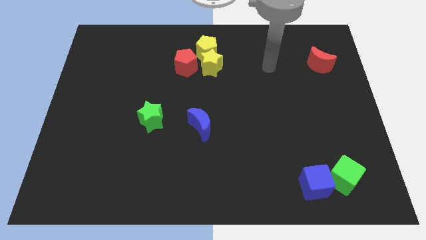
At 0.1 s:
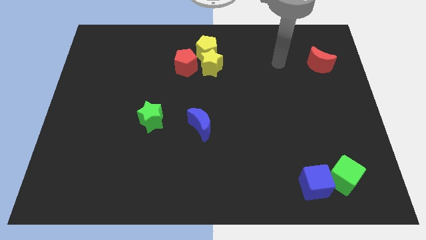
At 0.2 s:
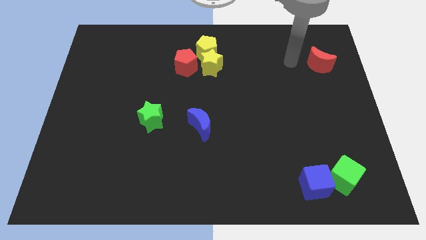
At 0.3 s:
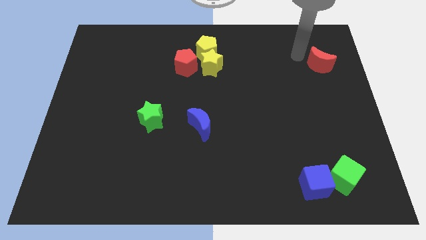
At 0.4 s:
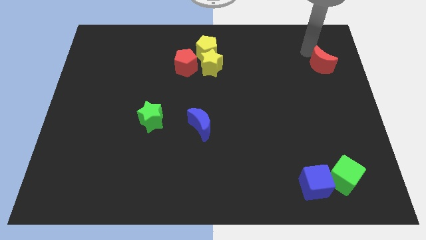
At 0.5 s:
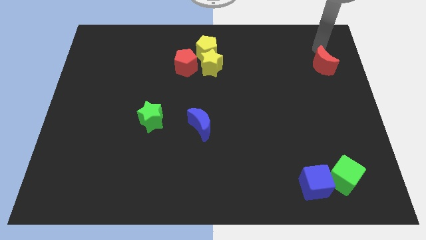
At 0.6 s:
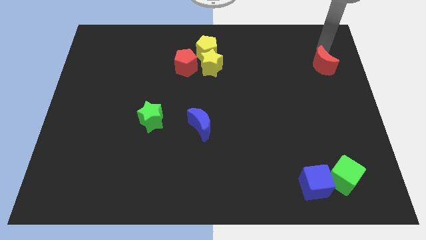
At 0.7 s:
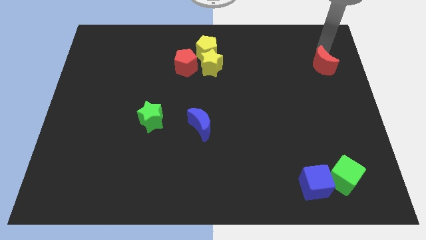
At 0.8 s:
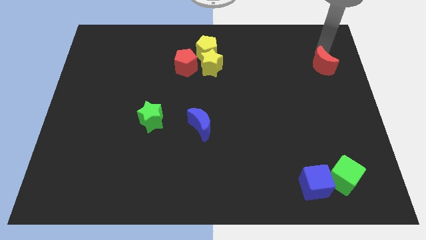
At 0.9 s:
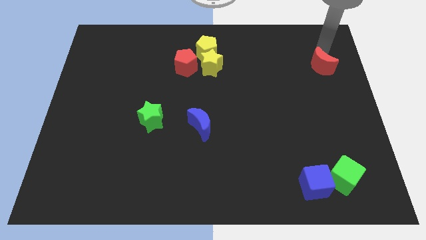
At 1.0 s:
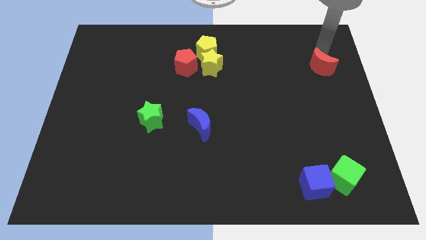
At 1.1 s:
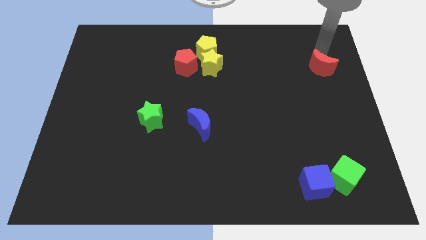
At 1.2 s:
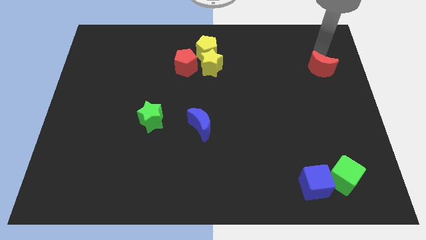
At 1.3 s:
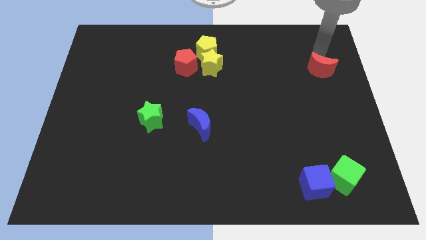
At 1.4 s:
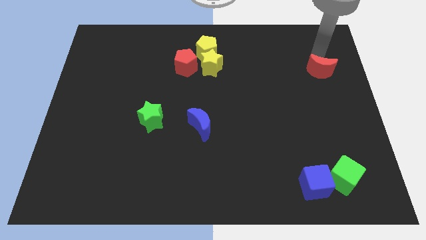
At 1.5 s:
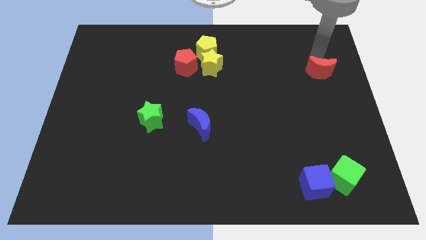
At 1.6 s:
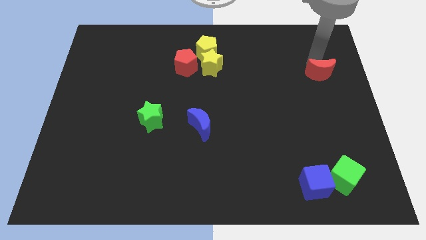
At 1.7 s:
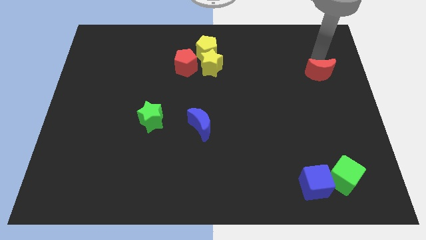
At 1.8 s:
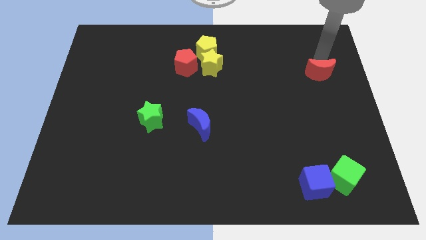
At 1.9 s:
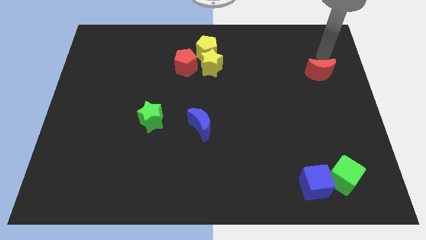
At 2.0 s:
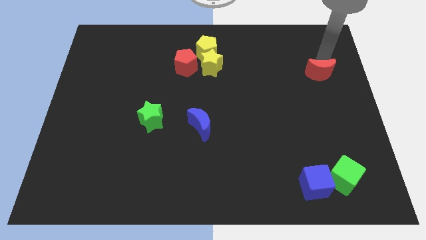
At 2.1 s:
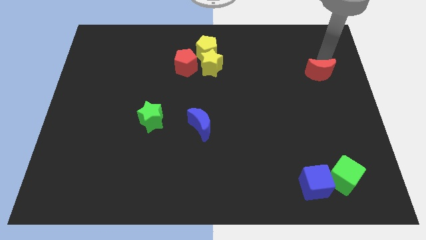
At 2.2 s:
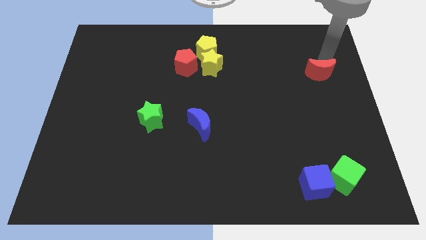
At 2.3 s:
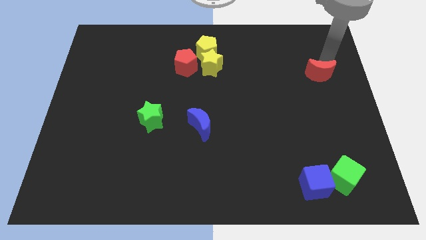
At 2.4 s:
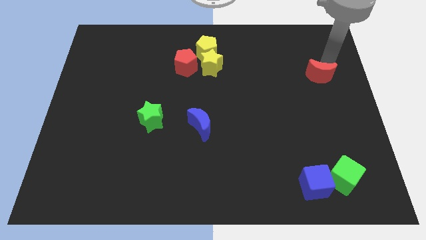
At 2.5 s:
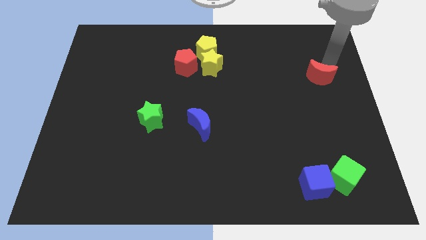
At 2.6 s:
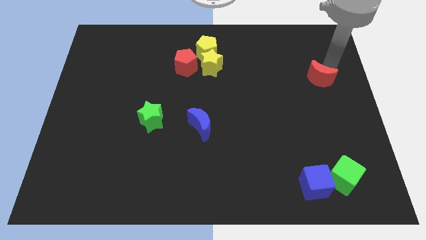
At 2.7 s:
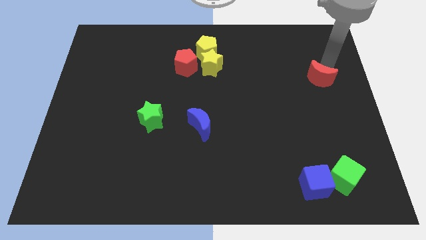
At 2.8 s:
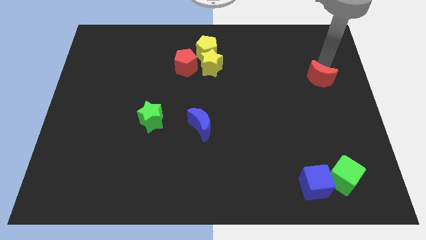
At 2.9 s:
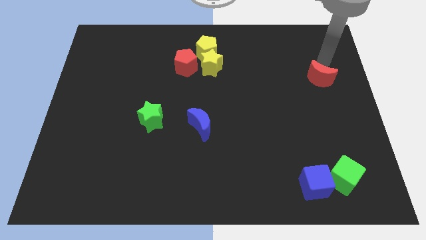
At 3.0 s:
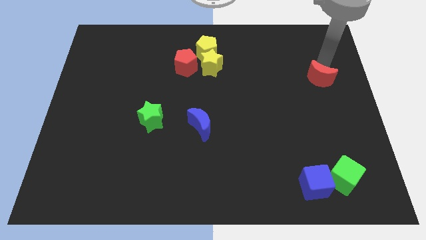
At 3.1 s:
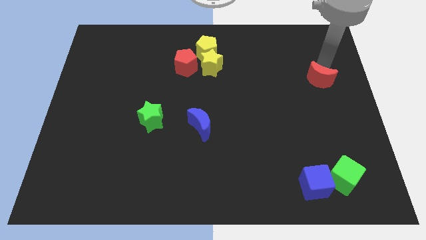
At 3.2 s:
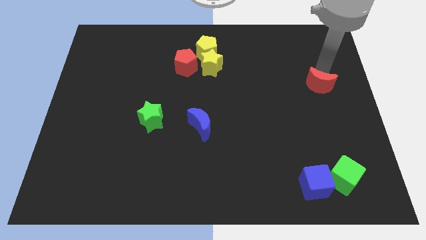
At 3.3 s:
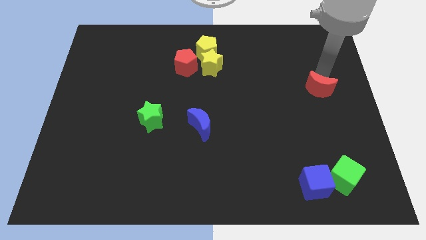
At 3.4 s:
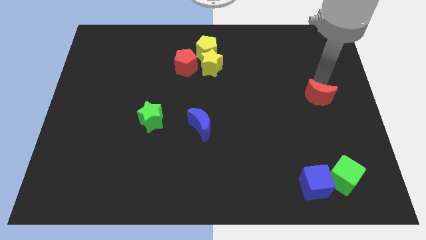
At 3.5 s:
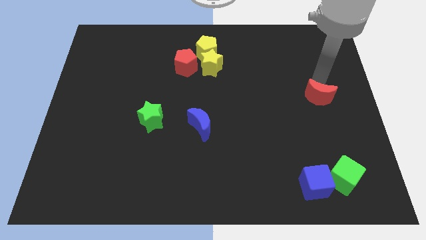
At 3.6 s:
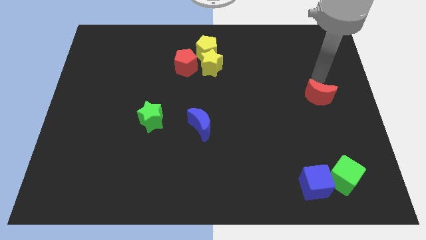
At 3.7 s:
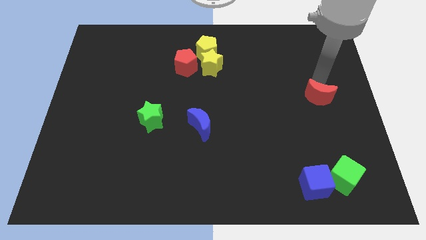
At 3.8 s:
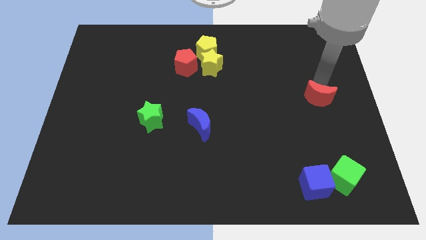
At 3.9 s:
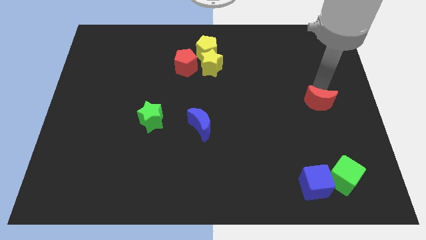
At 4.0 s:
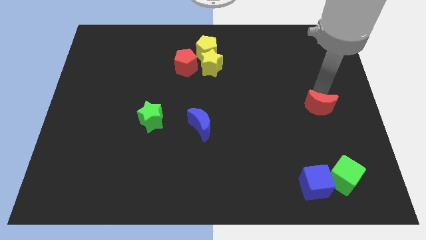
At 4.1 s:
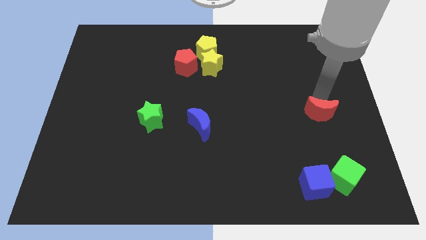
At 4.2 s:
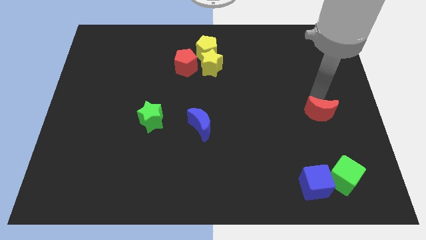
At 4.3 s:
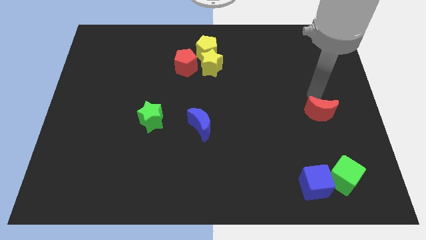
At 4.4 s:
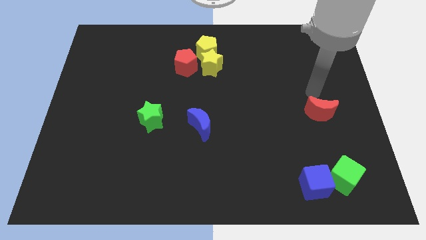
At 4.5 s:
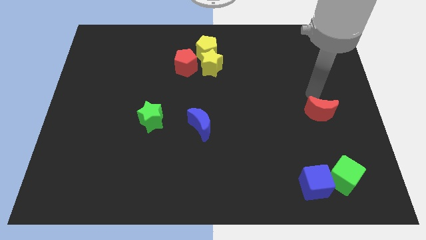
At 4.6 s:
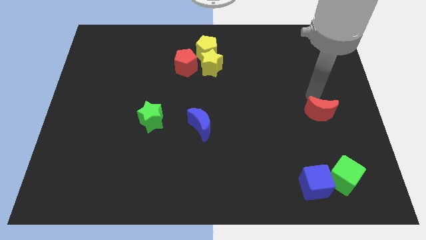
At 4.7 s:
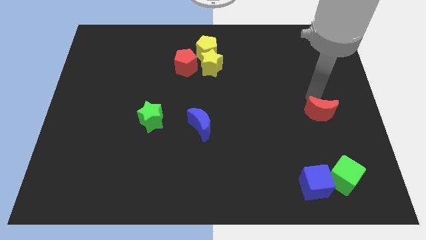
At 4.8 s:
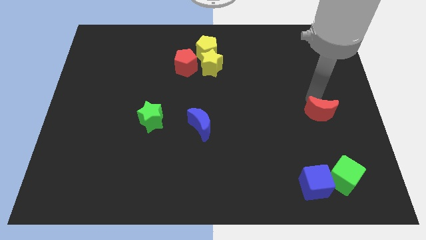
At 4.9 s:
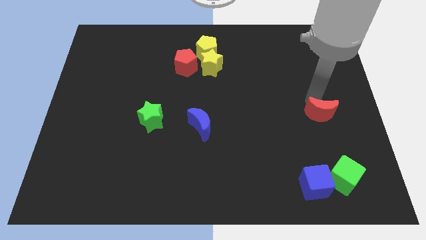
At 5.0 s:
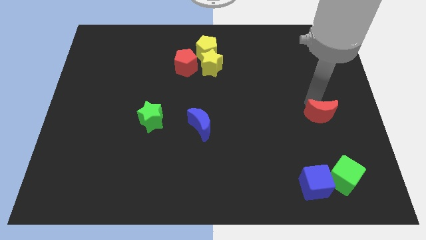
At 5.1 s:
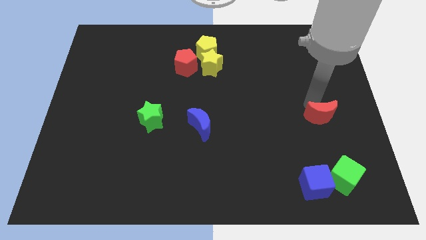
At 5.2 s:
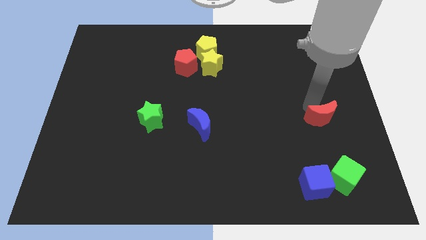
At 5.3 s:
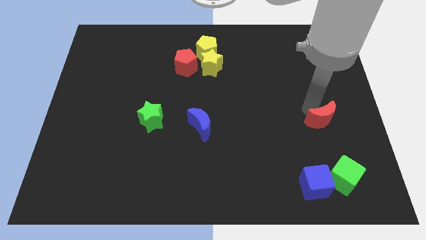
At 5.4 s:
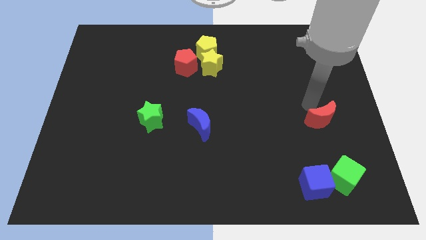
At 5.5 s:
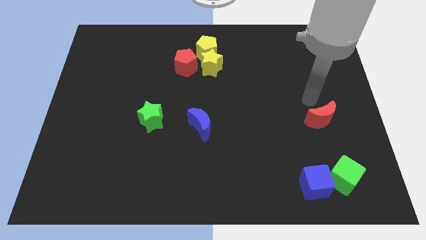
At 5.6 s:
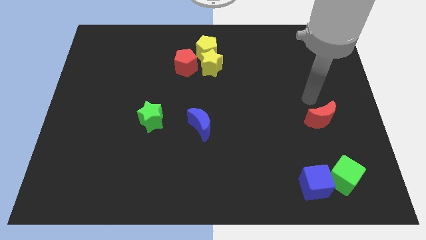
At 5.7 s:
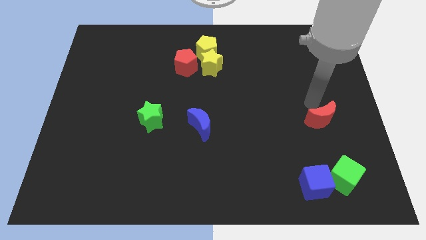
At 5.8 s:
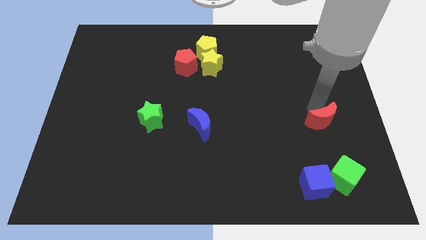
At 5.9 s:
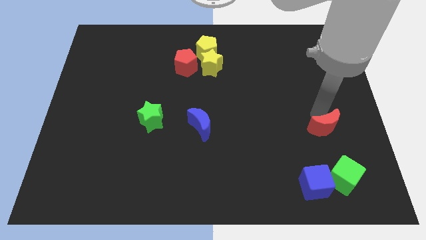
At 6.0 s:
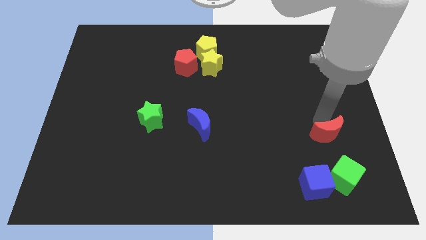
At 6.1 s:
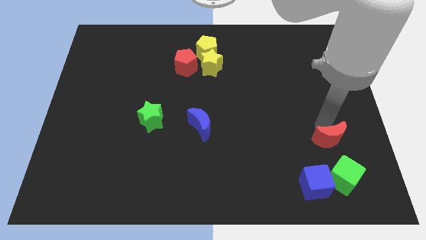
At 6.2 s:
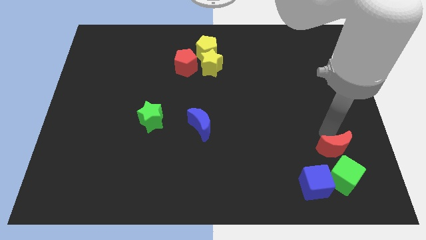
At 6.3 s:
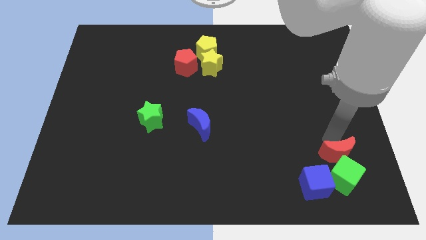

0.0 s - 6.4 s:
put the red moon next to the green cube

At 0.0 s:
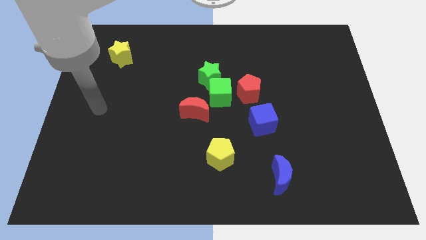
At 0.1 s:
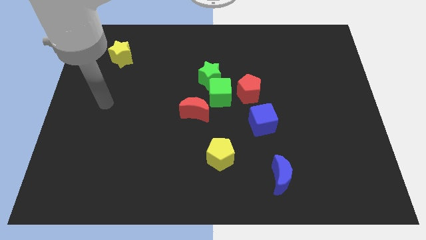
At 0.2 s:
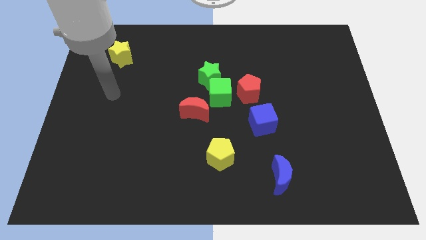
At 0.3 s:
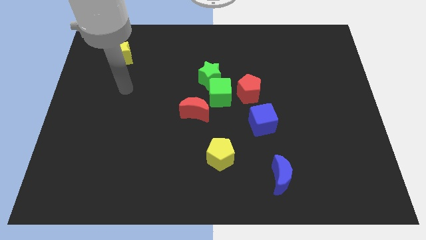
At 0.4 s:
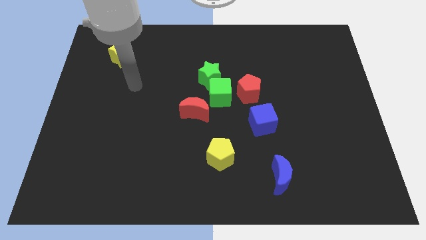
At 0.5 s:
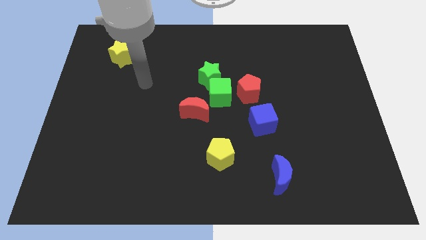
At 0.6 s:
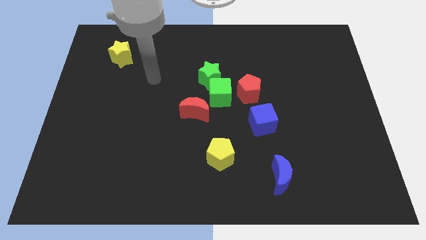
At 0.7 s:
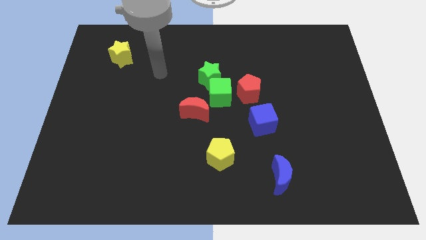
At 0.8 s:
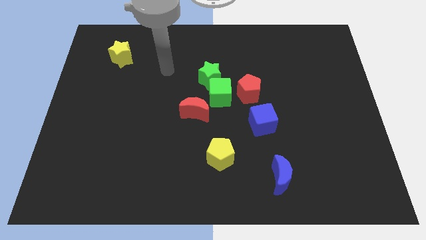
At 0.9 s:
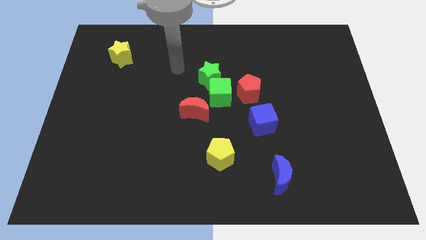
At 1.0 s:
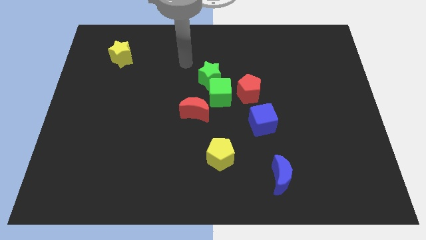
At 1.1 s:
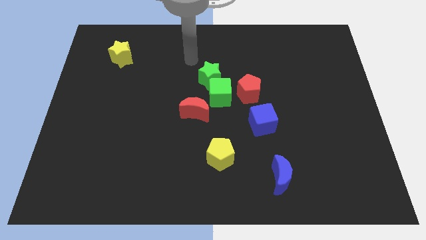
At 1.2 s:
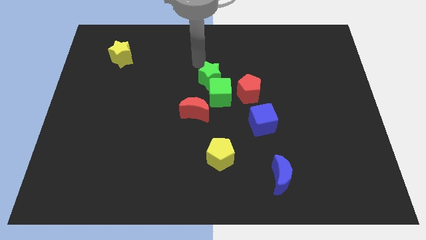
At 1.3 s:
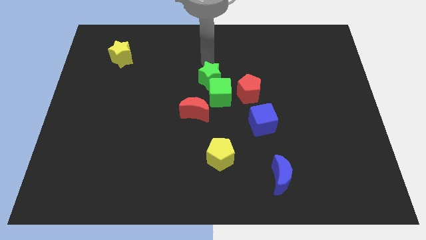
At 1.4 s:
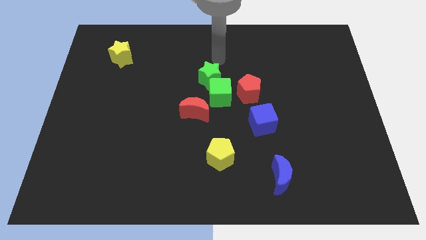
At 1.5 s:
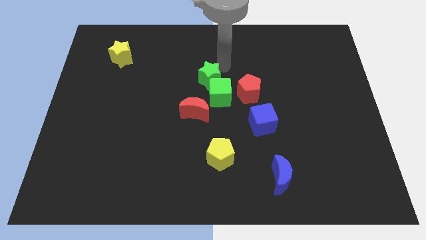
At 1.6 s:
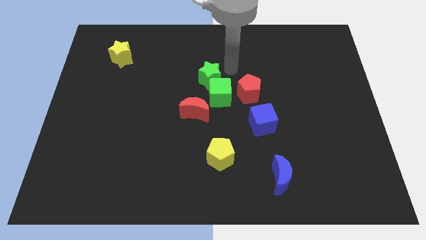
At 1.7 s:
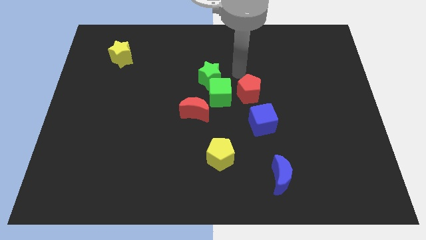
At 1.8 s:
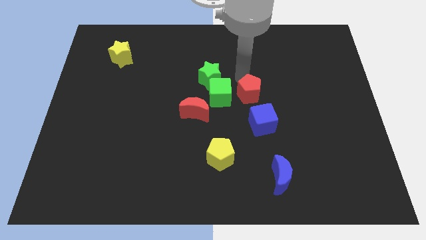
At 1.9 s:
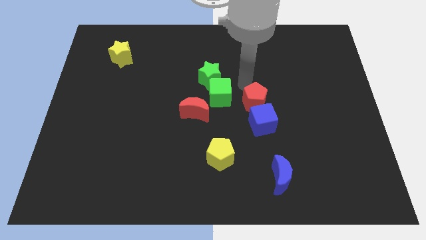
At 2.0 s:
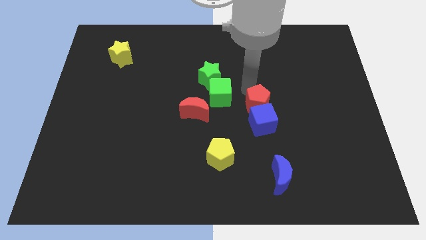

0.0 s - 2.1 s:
push the red pentagon next to the blue cube
